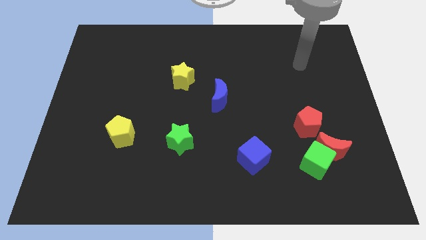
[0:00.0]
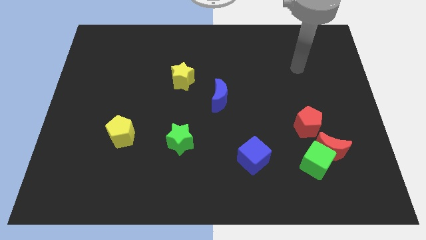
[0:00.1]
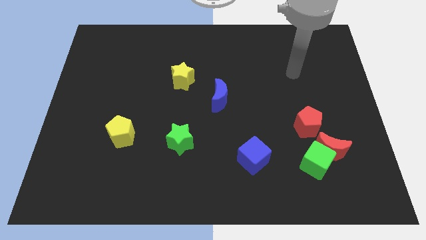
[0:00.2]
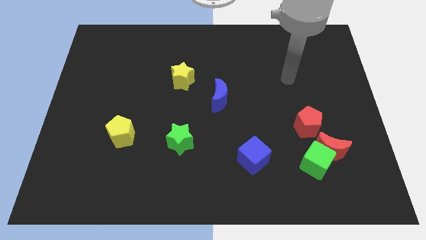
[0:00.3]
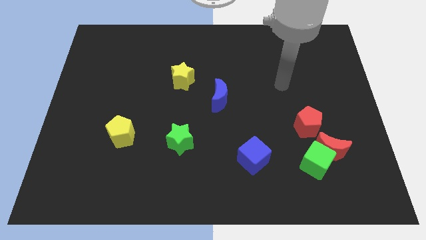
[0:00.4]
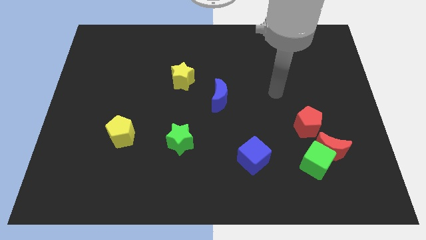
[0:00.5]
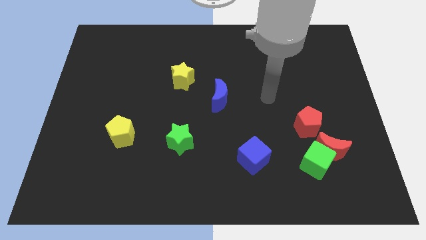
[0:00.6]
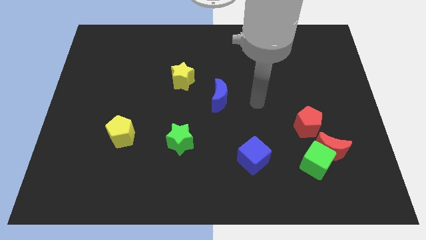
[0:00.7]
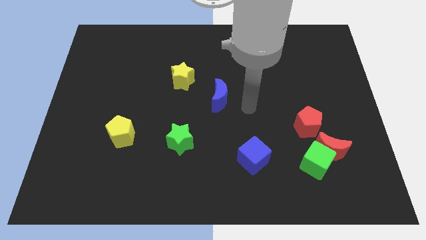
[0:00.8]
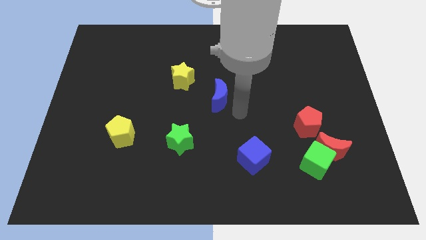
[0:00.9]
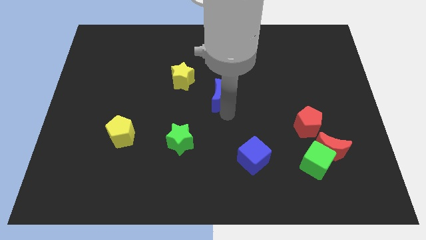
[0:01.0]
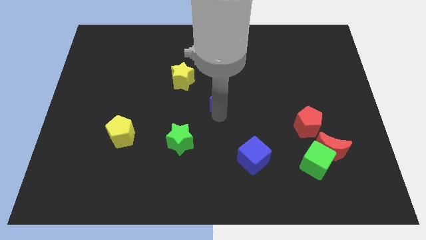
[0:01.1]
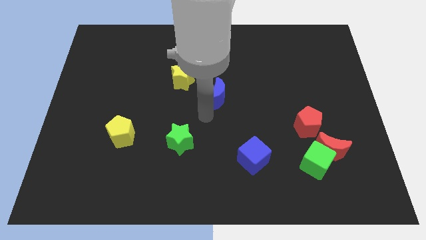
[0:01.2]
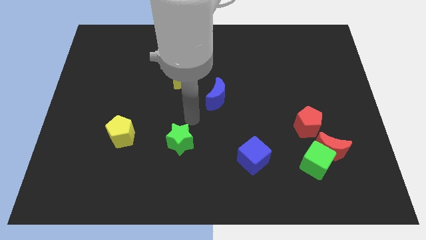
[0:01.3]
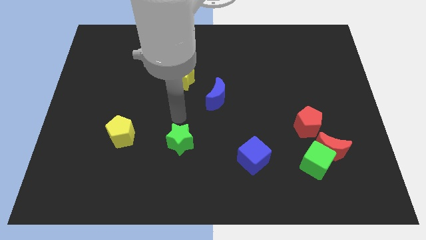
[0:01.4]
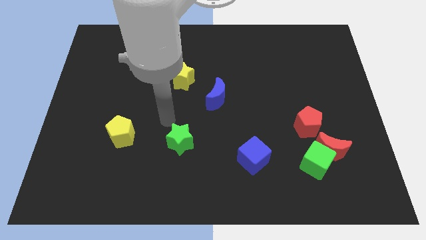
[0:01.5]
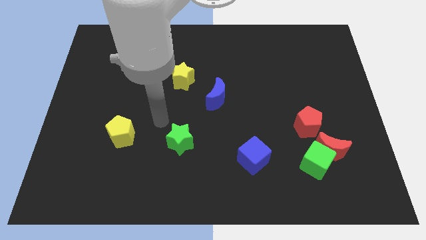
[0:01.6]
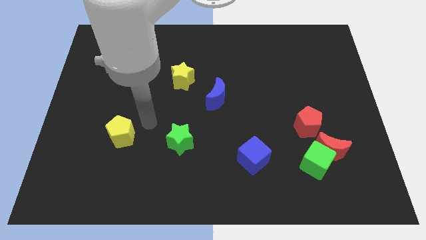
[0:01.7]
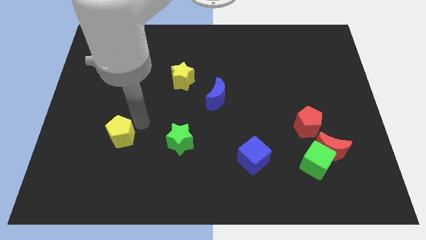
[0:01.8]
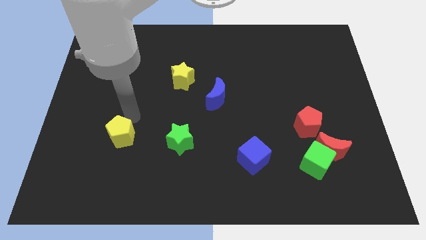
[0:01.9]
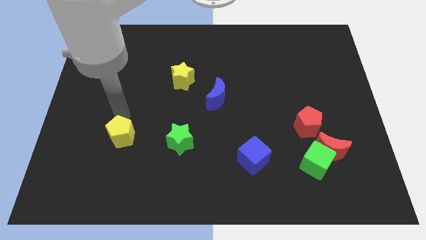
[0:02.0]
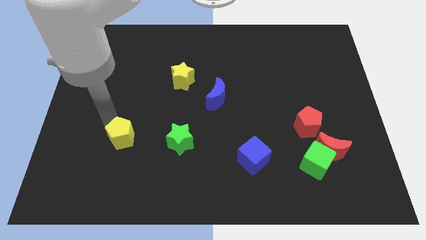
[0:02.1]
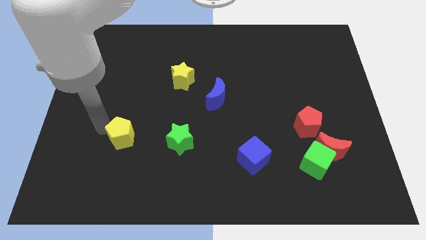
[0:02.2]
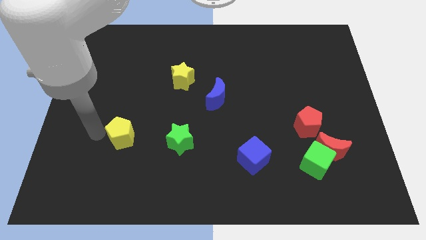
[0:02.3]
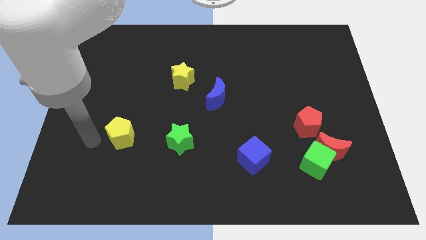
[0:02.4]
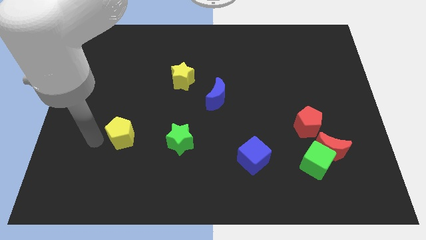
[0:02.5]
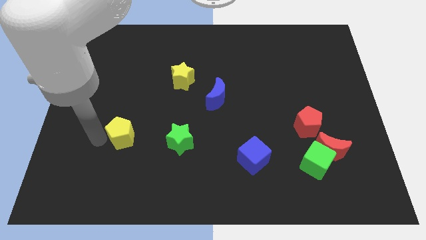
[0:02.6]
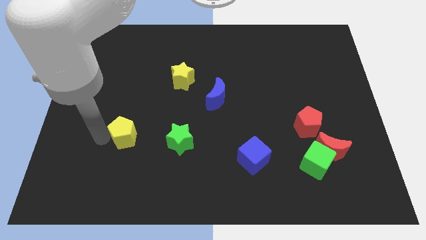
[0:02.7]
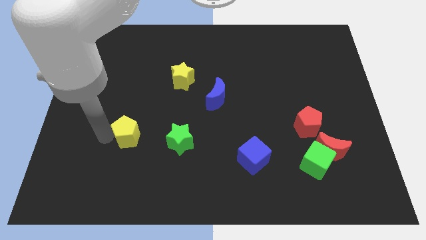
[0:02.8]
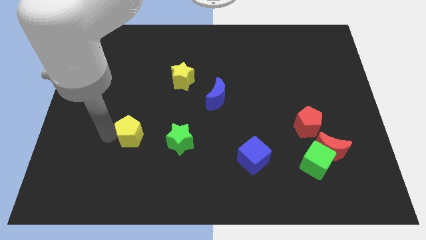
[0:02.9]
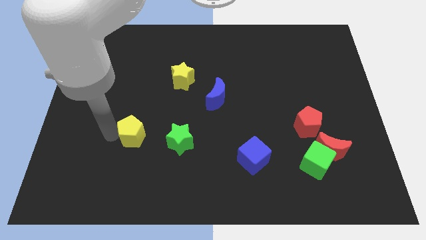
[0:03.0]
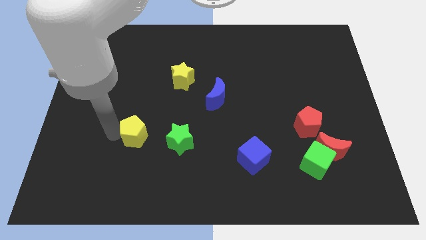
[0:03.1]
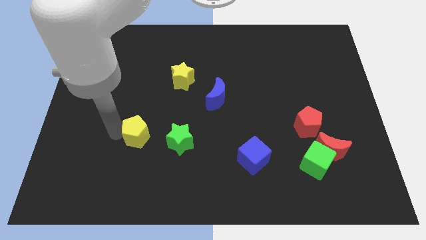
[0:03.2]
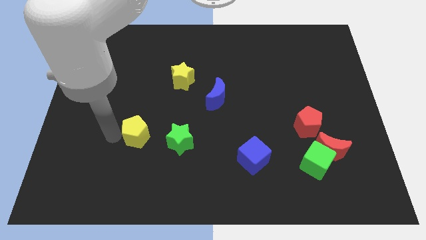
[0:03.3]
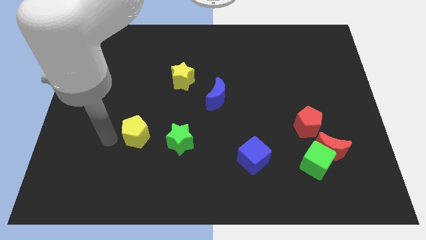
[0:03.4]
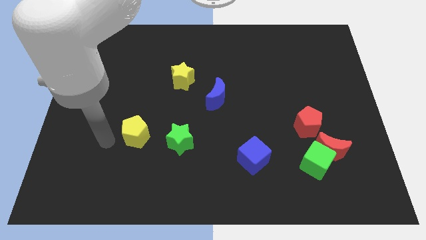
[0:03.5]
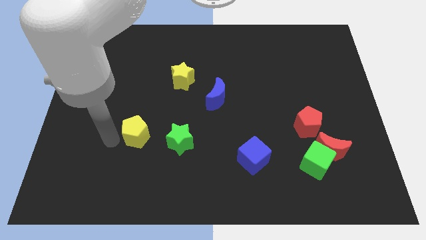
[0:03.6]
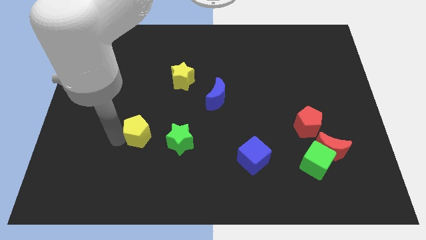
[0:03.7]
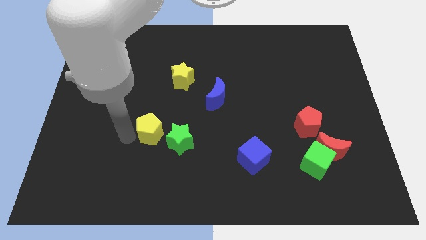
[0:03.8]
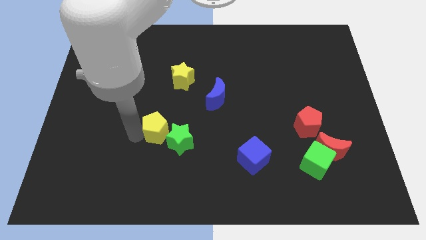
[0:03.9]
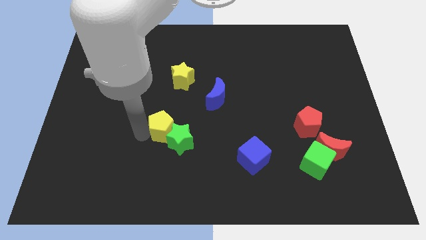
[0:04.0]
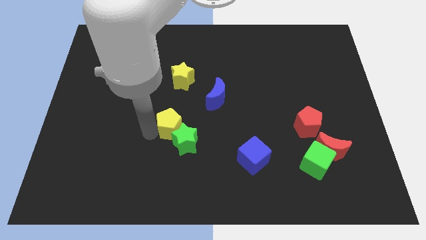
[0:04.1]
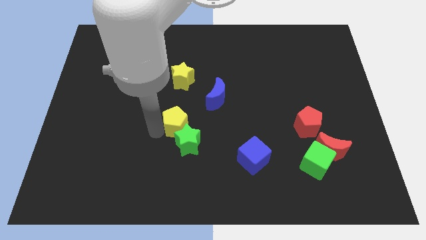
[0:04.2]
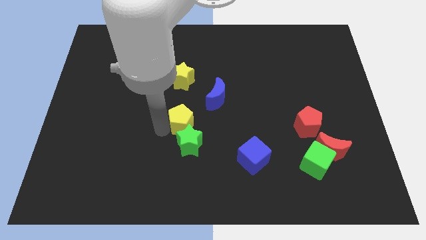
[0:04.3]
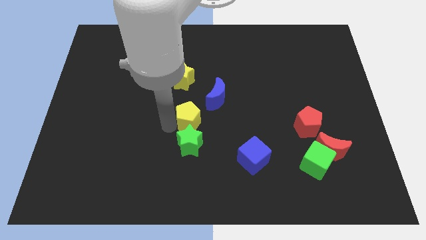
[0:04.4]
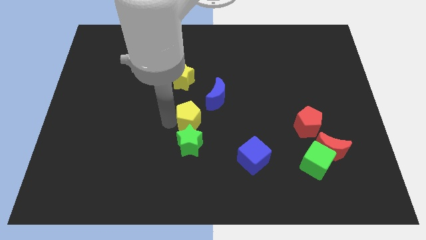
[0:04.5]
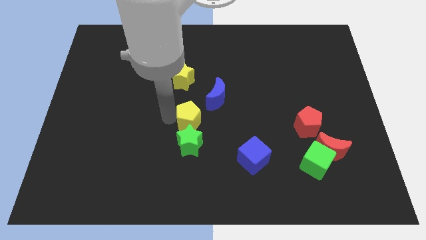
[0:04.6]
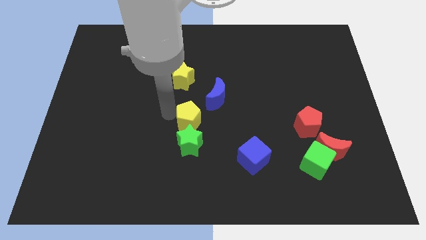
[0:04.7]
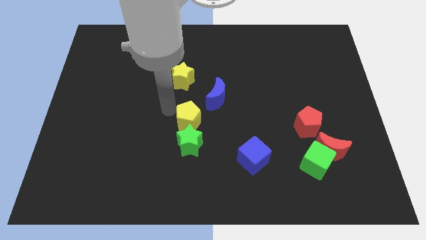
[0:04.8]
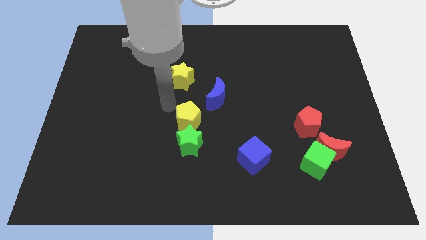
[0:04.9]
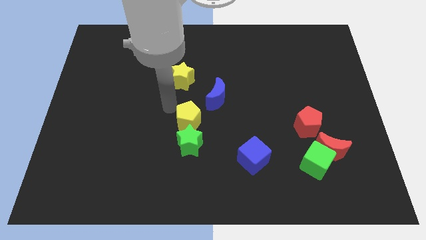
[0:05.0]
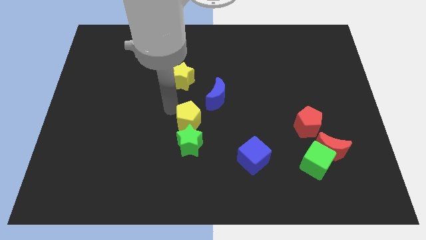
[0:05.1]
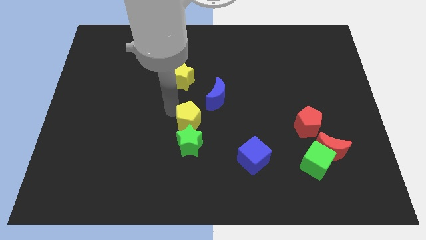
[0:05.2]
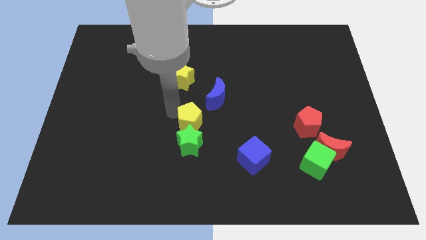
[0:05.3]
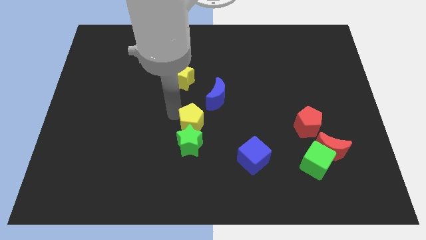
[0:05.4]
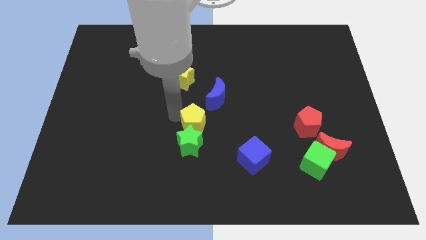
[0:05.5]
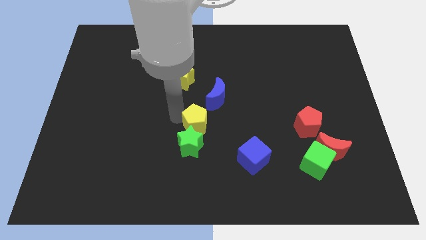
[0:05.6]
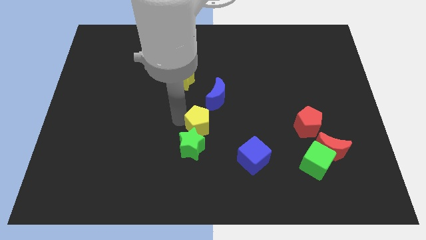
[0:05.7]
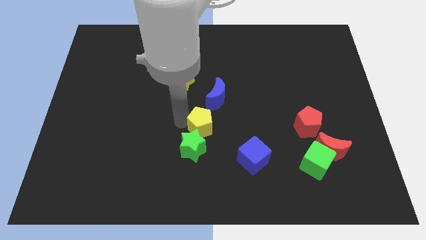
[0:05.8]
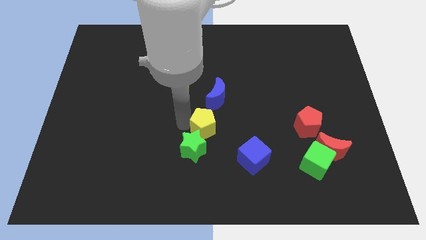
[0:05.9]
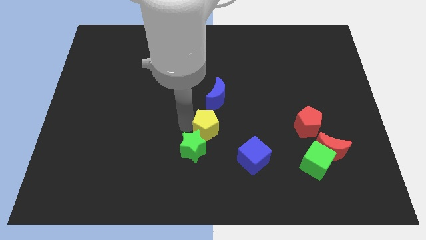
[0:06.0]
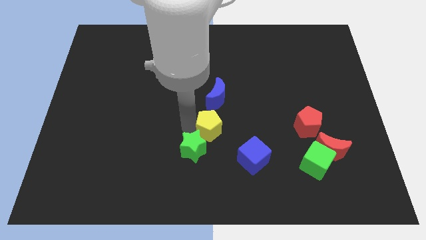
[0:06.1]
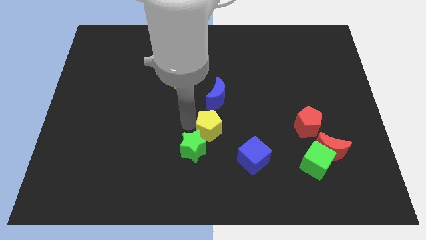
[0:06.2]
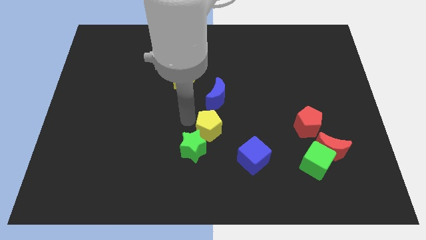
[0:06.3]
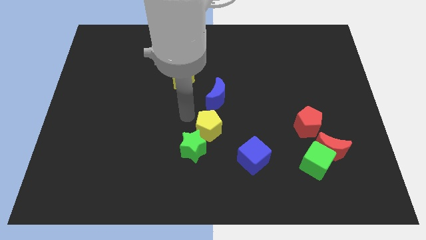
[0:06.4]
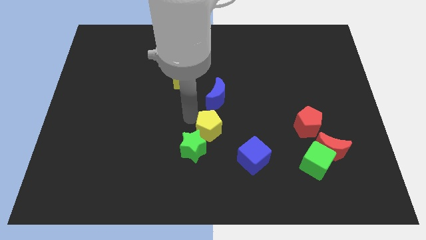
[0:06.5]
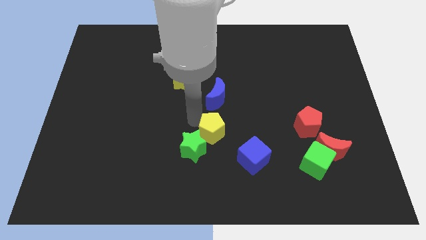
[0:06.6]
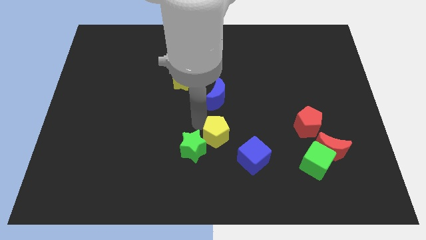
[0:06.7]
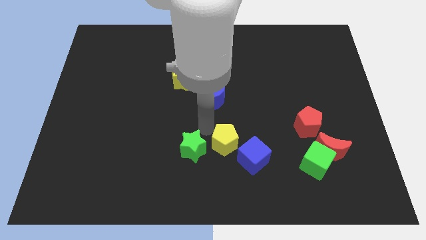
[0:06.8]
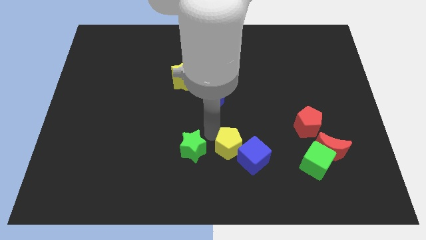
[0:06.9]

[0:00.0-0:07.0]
push the yellow pentagon to the blue cube
